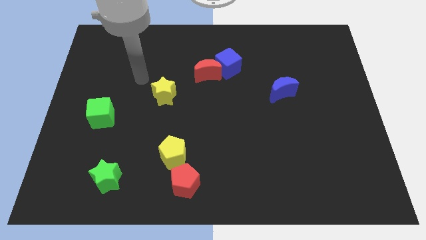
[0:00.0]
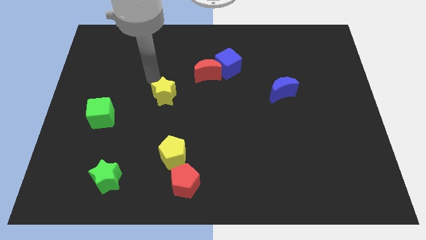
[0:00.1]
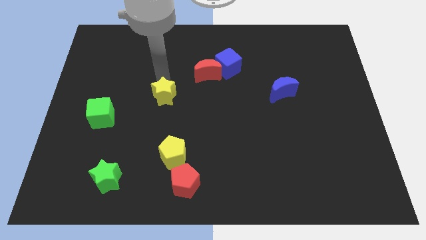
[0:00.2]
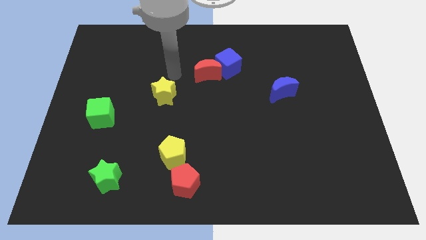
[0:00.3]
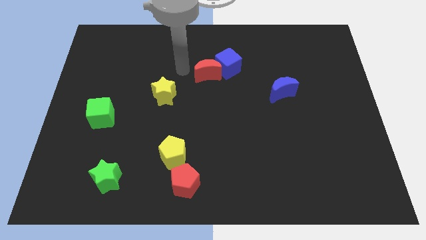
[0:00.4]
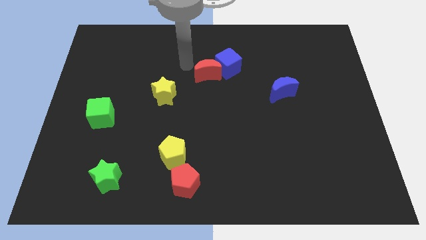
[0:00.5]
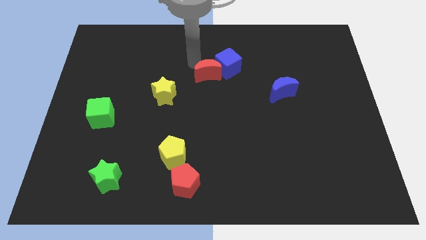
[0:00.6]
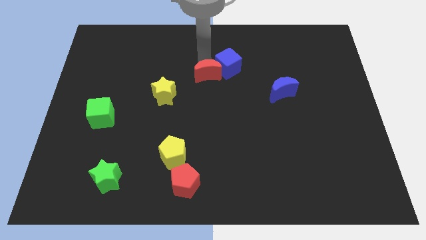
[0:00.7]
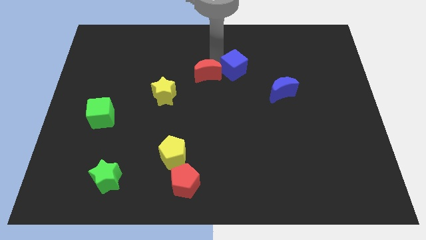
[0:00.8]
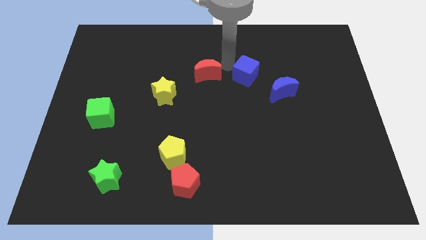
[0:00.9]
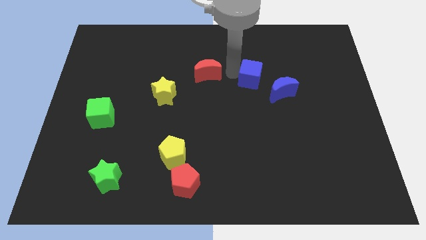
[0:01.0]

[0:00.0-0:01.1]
pull the red moon apart from the blue cube

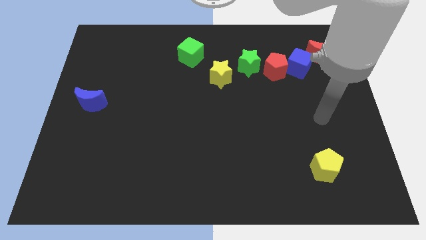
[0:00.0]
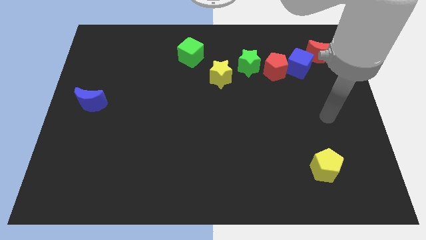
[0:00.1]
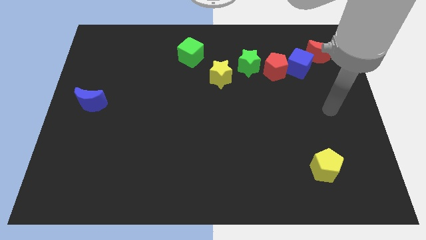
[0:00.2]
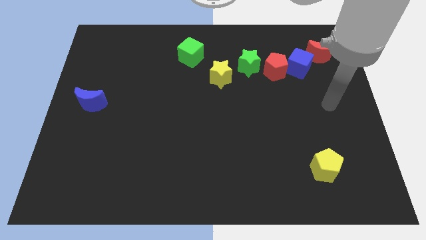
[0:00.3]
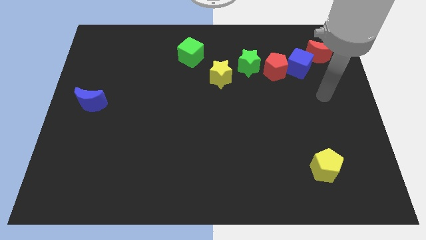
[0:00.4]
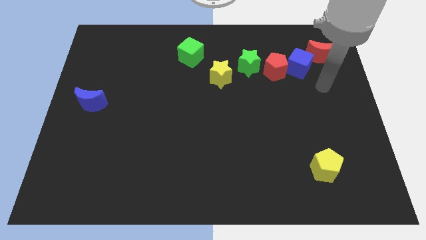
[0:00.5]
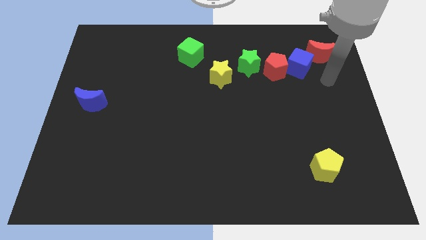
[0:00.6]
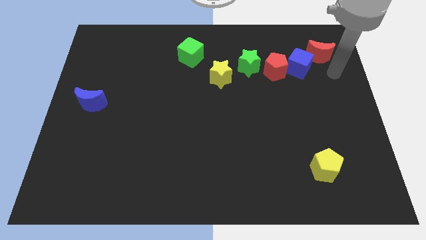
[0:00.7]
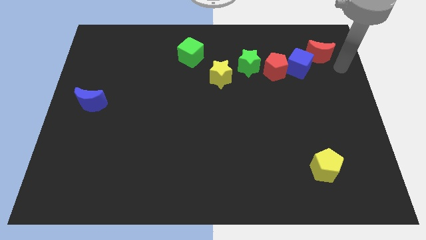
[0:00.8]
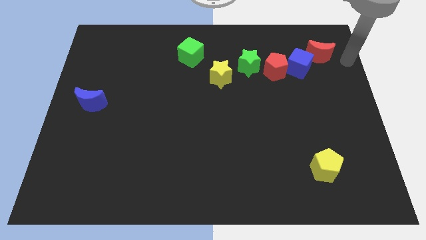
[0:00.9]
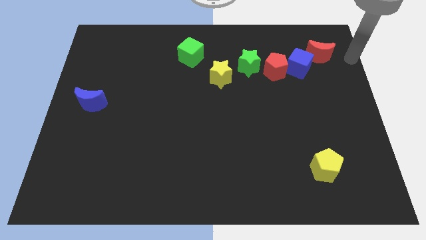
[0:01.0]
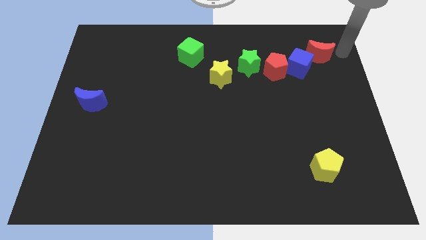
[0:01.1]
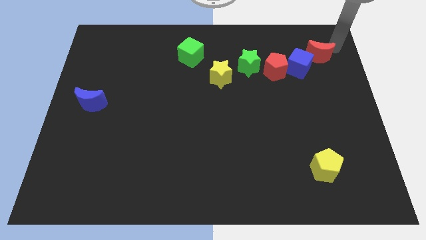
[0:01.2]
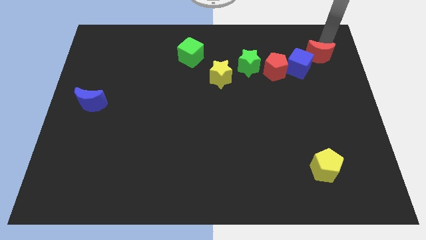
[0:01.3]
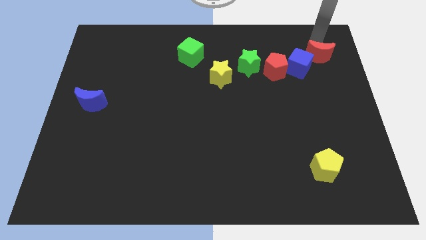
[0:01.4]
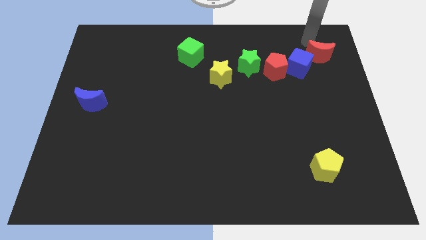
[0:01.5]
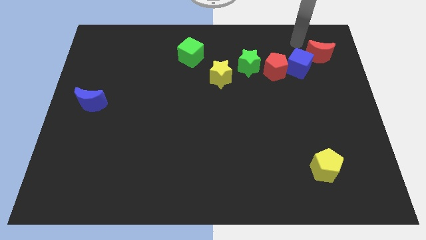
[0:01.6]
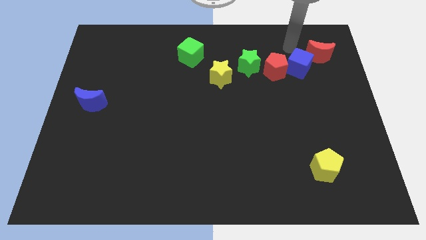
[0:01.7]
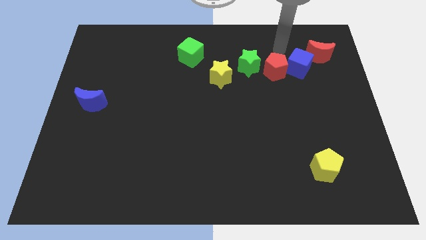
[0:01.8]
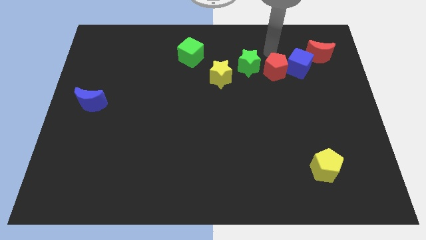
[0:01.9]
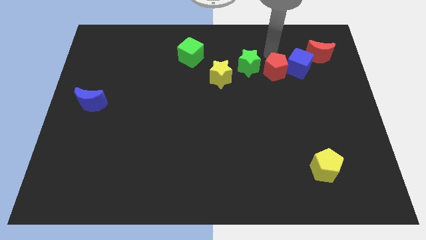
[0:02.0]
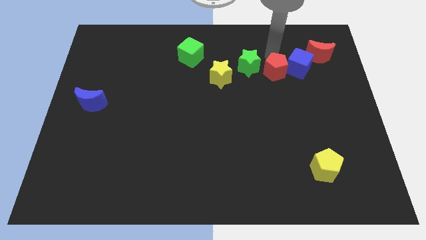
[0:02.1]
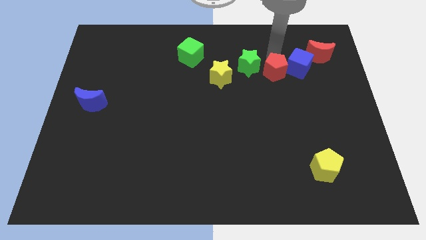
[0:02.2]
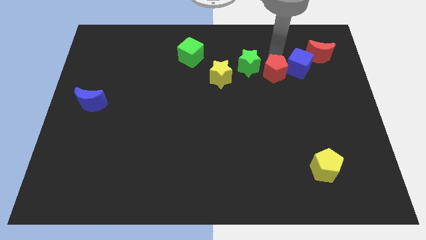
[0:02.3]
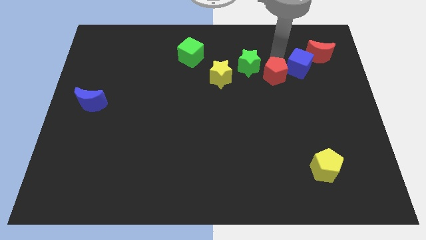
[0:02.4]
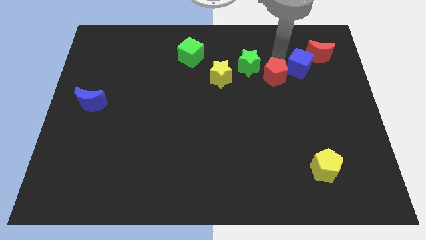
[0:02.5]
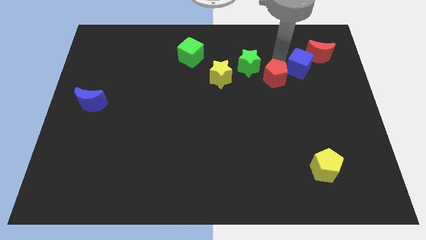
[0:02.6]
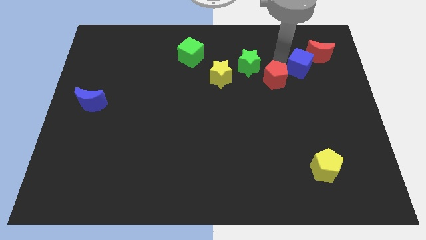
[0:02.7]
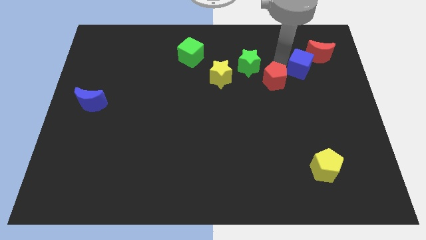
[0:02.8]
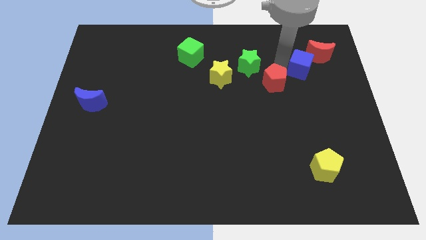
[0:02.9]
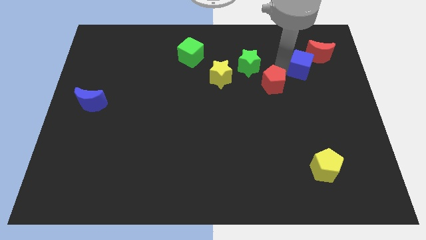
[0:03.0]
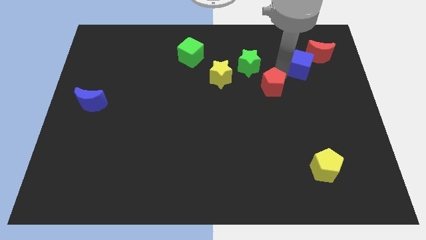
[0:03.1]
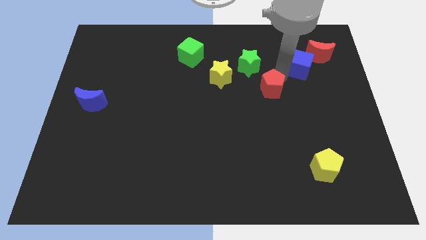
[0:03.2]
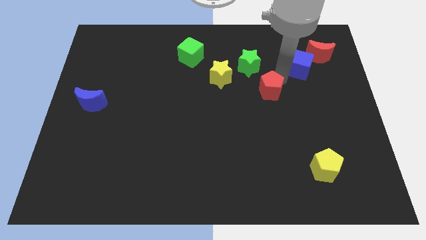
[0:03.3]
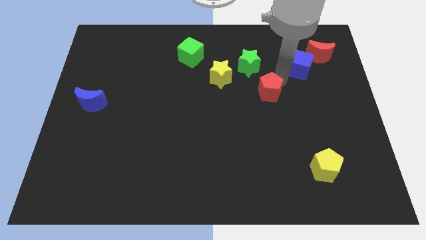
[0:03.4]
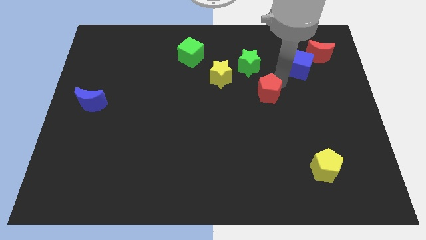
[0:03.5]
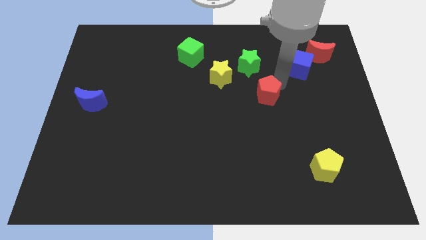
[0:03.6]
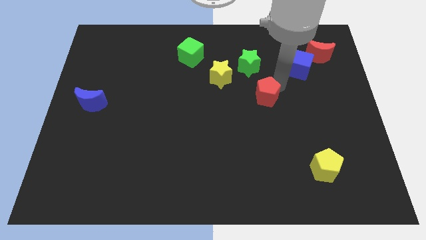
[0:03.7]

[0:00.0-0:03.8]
separate the red pentagon from the blue cube and green star

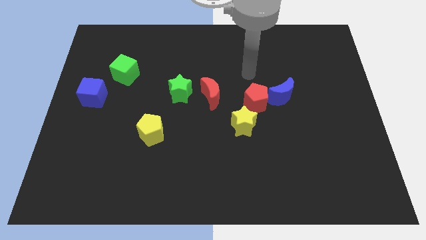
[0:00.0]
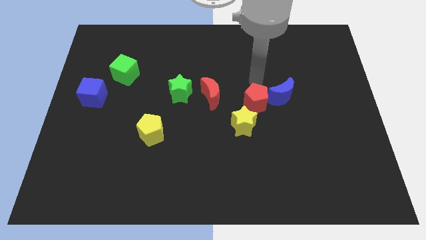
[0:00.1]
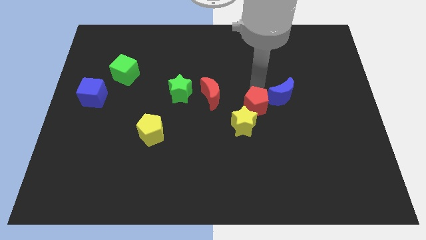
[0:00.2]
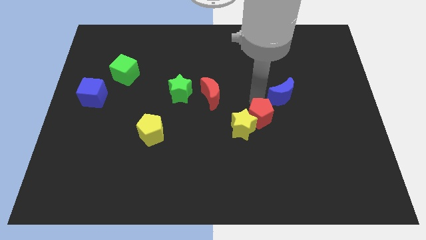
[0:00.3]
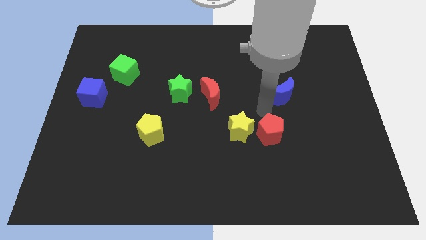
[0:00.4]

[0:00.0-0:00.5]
separate the blue moon from the red pentagon

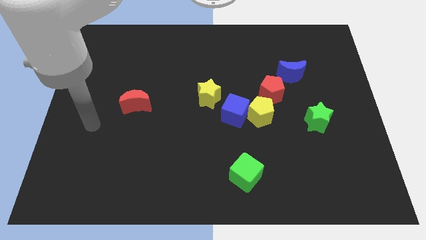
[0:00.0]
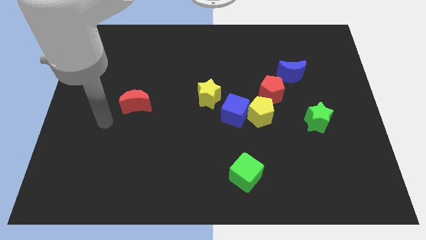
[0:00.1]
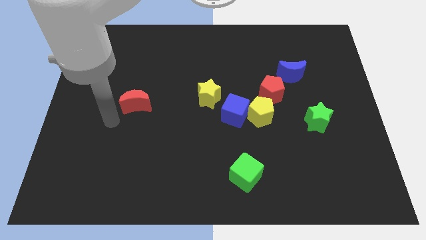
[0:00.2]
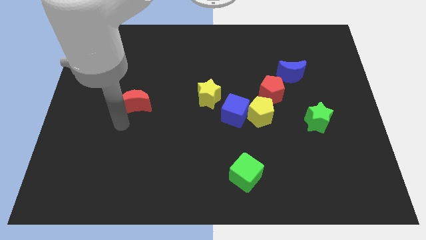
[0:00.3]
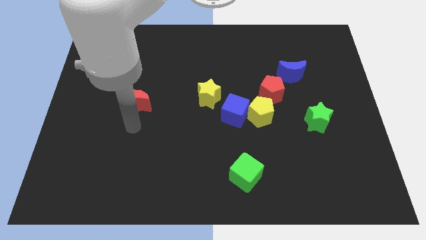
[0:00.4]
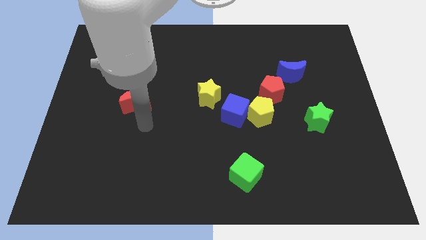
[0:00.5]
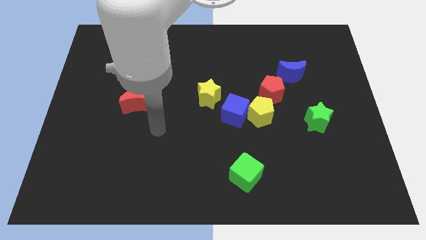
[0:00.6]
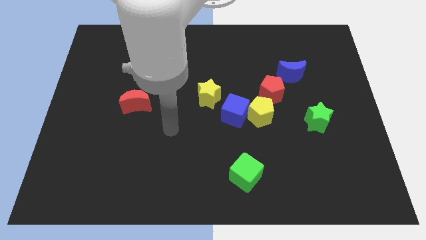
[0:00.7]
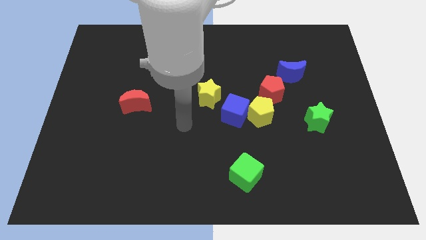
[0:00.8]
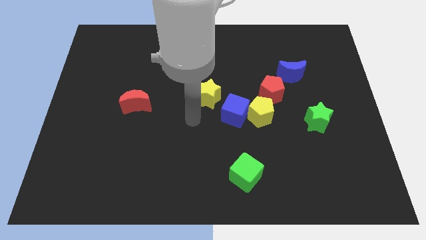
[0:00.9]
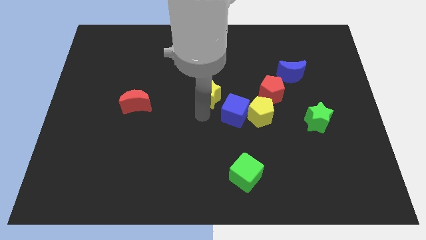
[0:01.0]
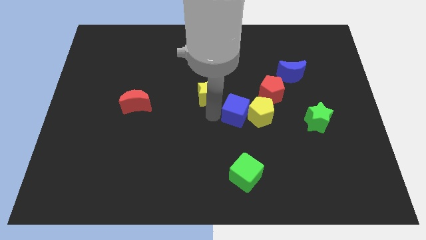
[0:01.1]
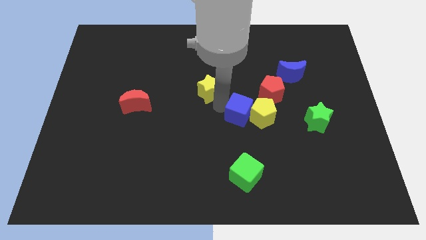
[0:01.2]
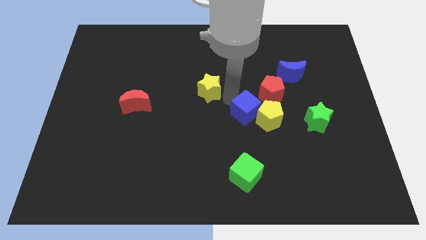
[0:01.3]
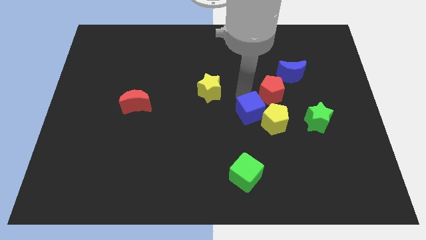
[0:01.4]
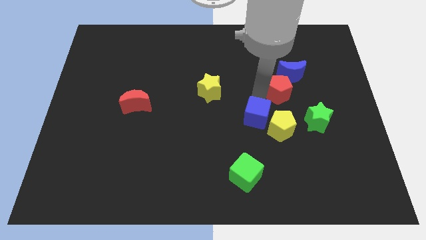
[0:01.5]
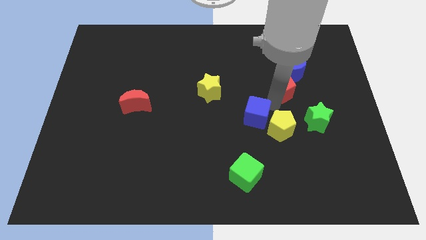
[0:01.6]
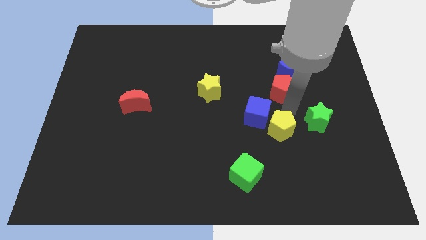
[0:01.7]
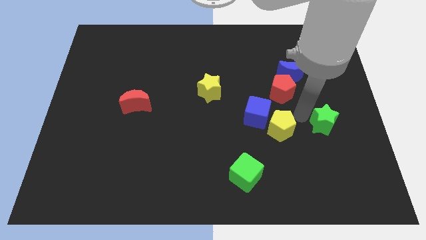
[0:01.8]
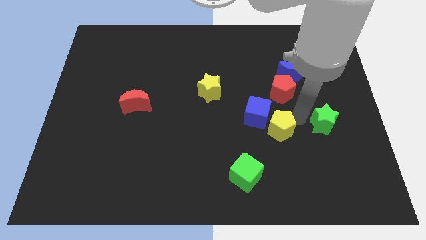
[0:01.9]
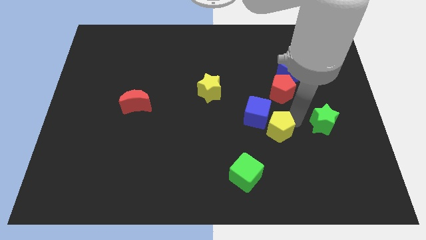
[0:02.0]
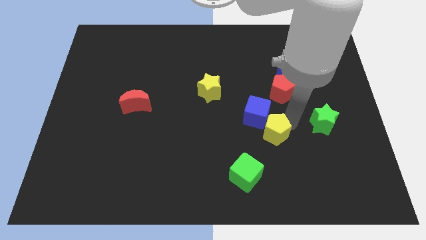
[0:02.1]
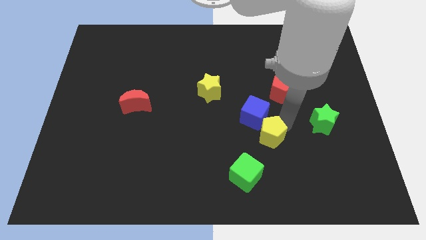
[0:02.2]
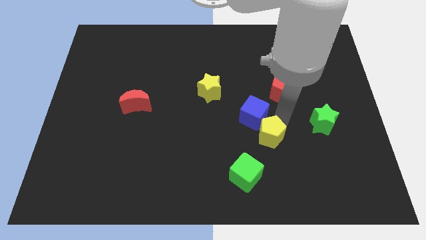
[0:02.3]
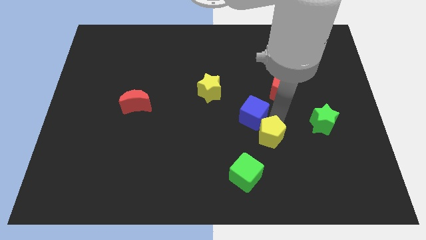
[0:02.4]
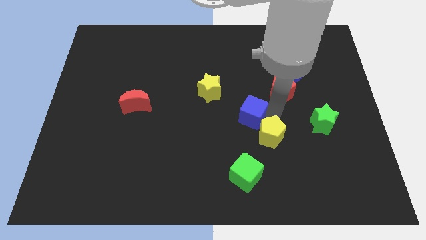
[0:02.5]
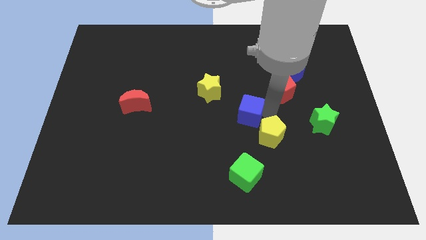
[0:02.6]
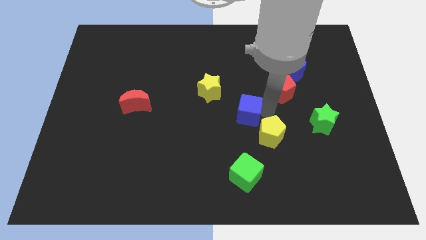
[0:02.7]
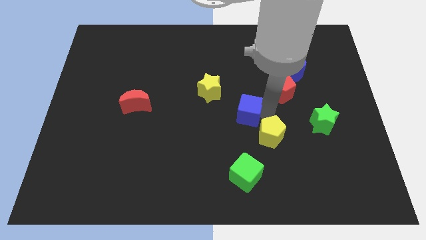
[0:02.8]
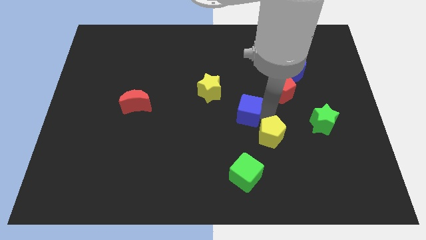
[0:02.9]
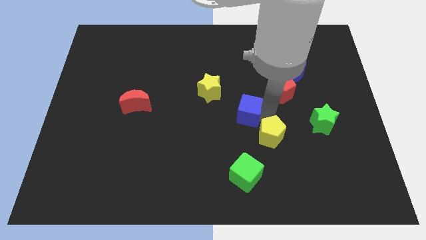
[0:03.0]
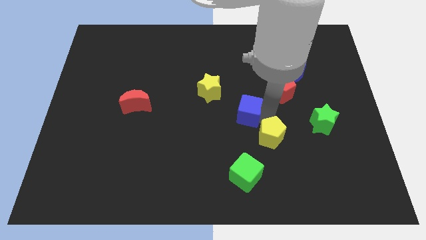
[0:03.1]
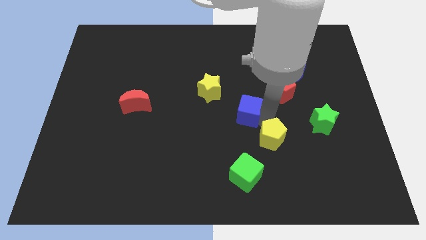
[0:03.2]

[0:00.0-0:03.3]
move the yellow pentagon away from the blue cube and red pentagon

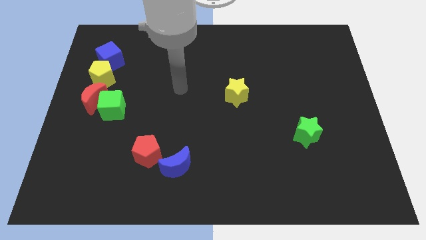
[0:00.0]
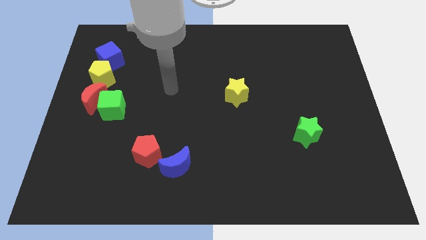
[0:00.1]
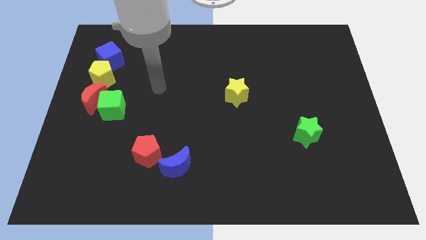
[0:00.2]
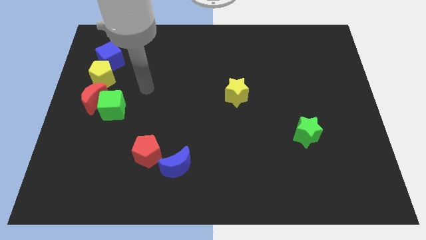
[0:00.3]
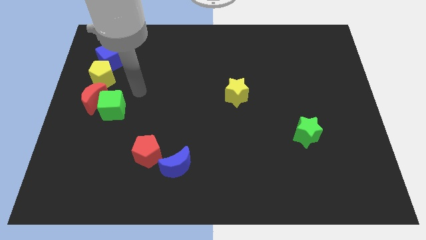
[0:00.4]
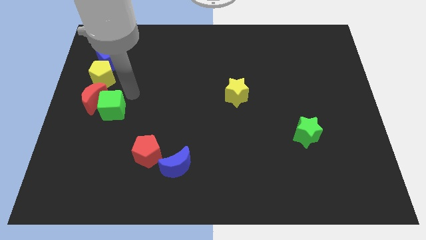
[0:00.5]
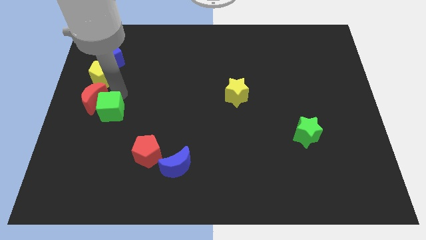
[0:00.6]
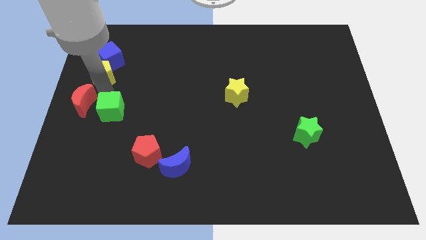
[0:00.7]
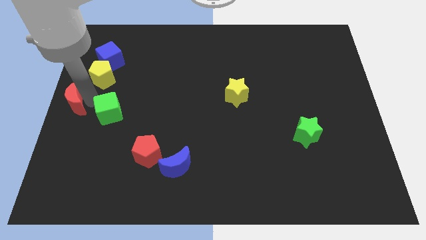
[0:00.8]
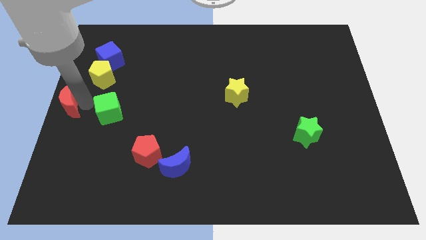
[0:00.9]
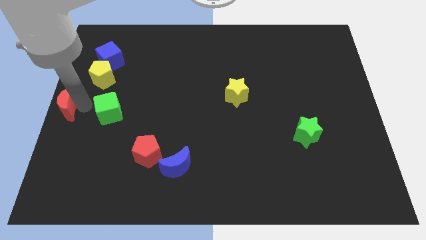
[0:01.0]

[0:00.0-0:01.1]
move the green cube away from the red moon
